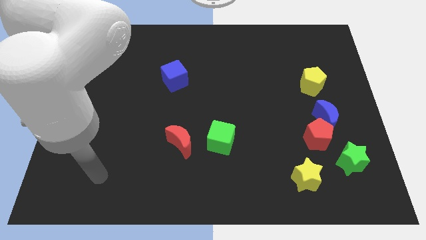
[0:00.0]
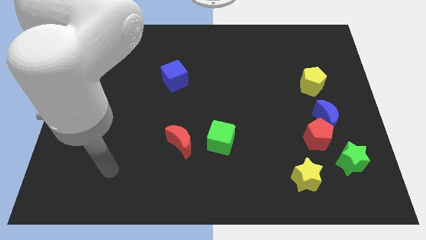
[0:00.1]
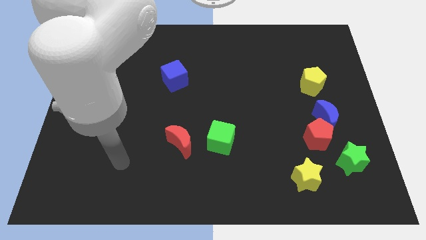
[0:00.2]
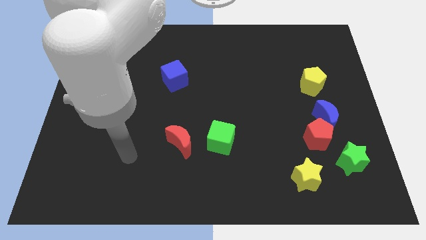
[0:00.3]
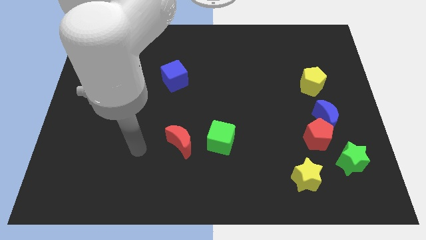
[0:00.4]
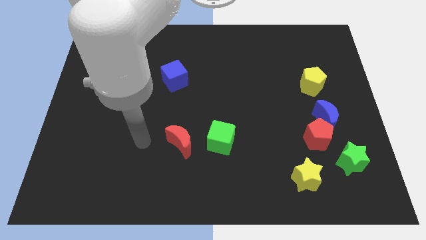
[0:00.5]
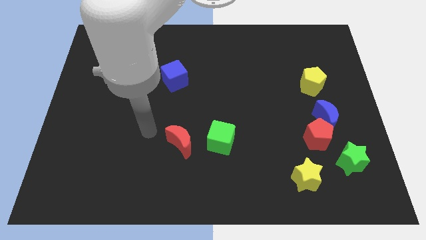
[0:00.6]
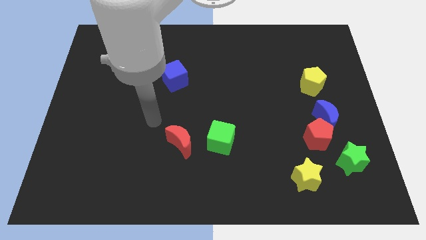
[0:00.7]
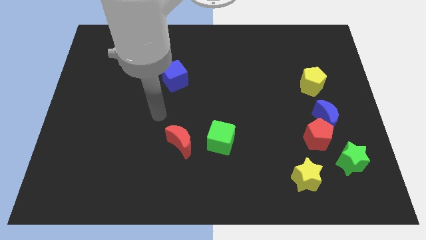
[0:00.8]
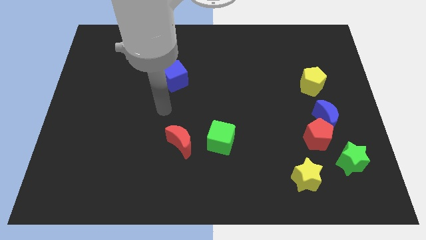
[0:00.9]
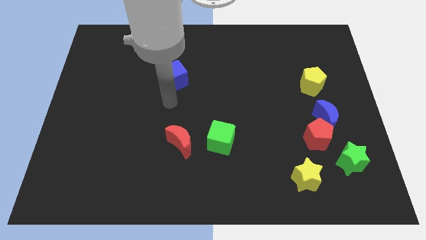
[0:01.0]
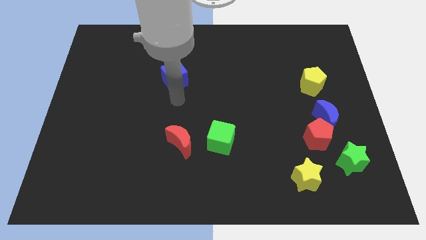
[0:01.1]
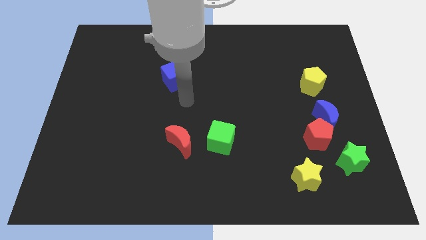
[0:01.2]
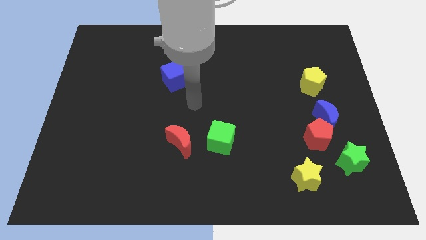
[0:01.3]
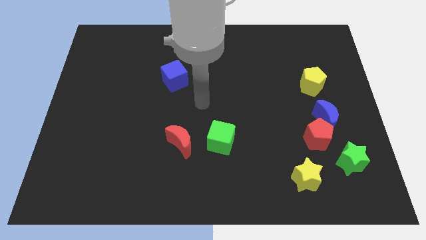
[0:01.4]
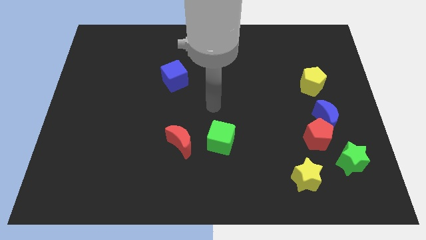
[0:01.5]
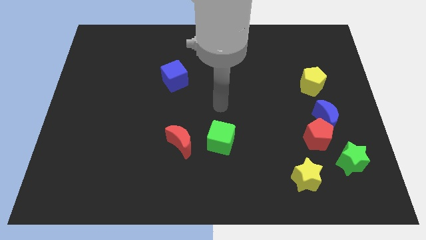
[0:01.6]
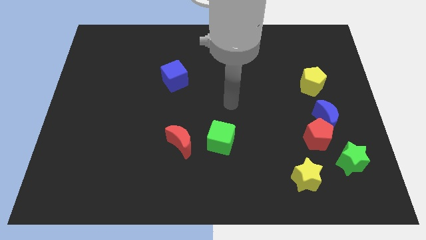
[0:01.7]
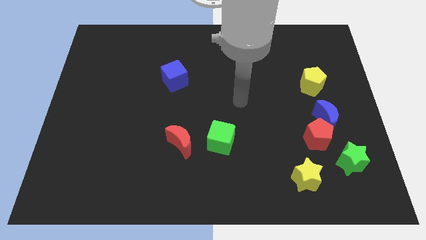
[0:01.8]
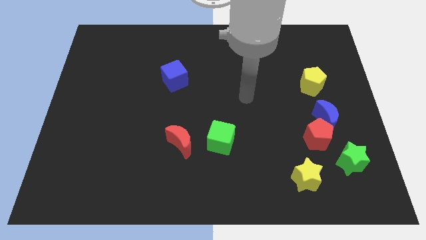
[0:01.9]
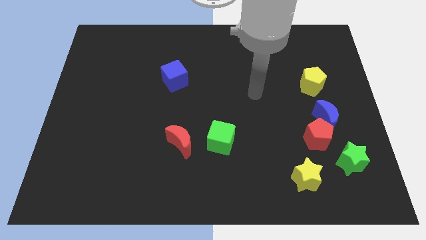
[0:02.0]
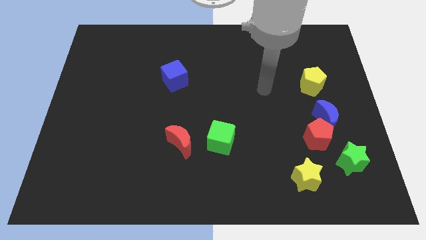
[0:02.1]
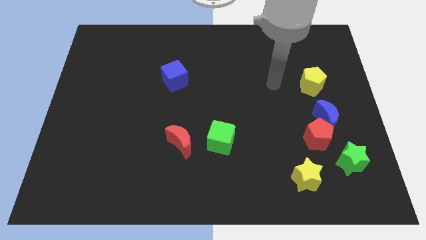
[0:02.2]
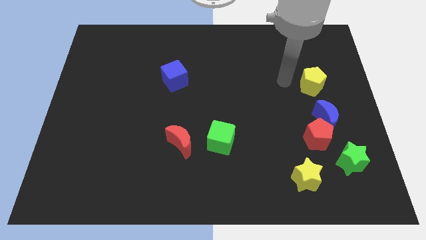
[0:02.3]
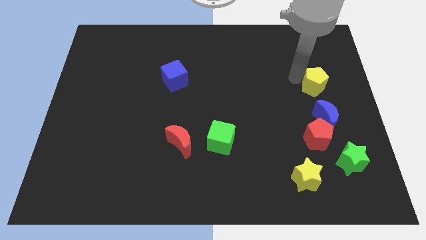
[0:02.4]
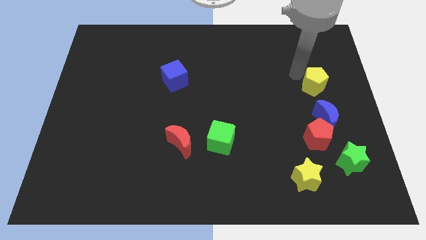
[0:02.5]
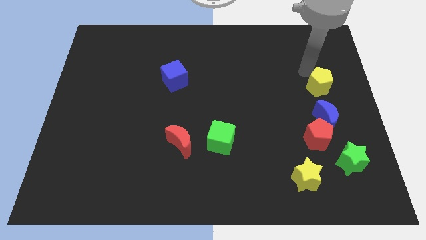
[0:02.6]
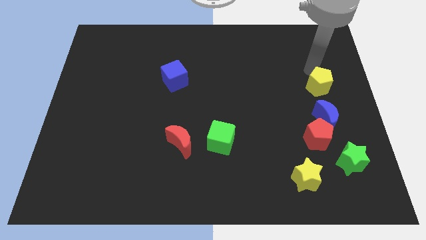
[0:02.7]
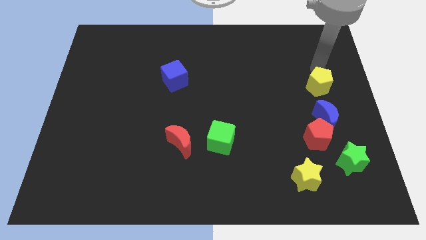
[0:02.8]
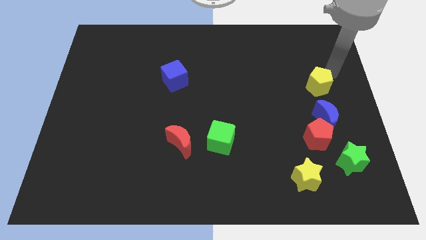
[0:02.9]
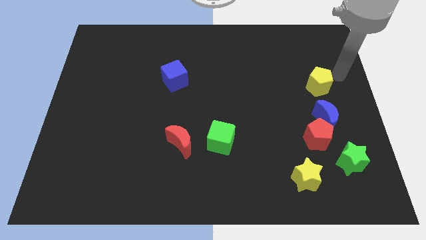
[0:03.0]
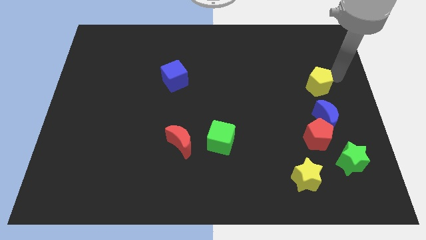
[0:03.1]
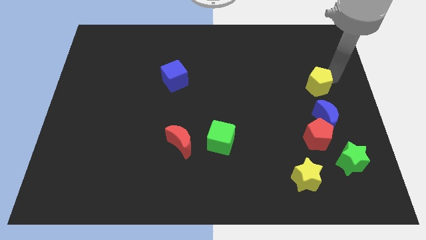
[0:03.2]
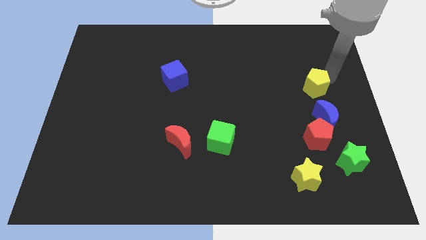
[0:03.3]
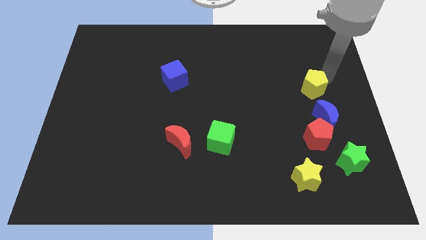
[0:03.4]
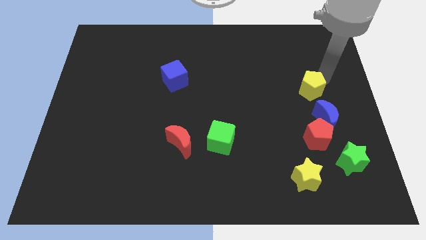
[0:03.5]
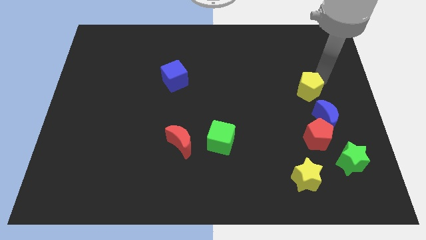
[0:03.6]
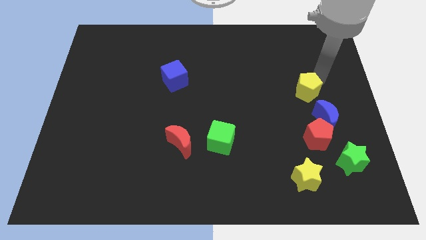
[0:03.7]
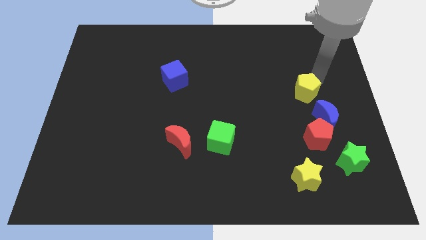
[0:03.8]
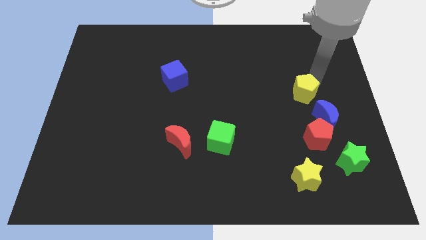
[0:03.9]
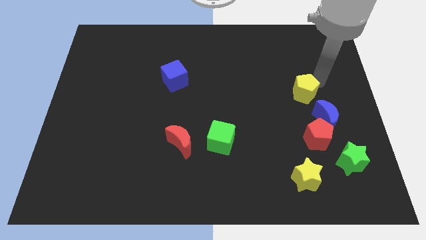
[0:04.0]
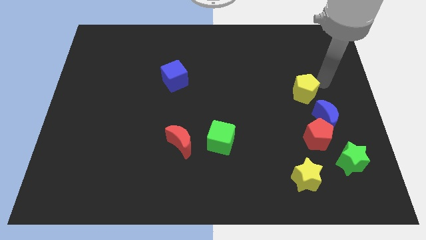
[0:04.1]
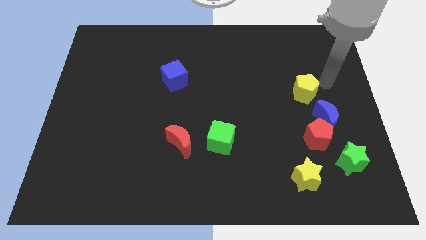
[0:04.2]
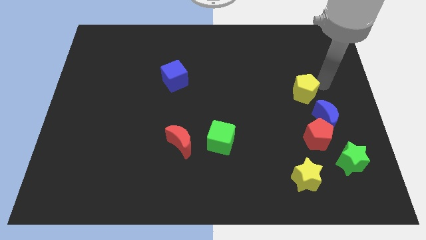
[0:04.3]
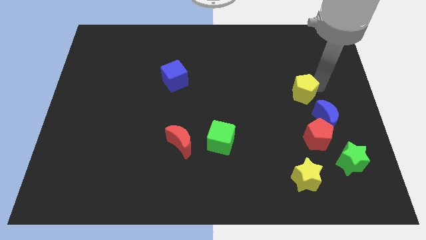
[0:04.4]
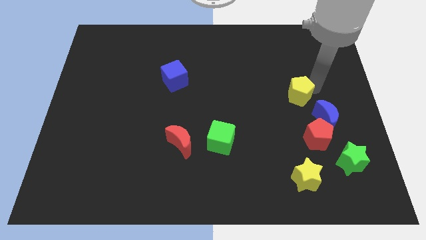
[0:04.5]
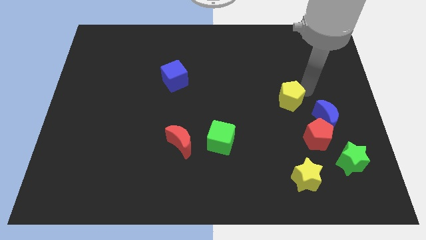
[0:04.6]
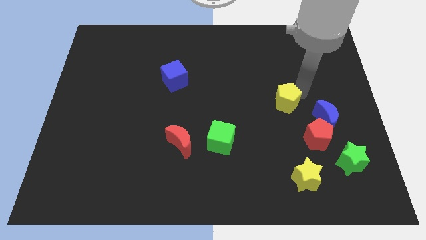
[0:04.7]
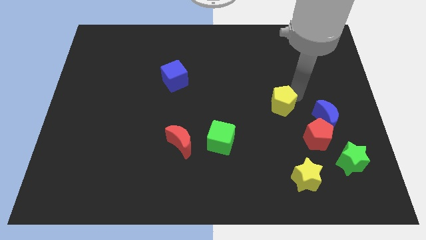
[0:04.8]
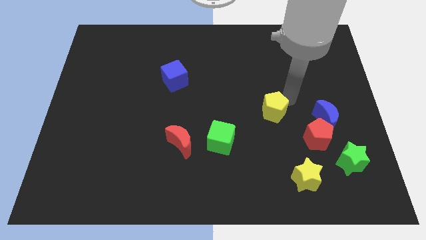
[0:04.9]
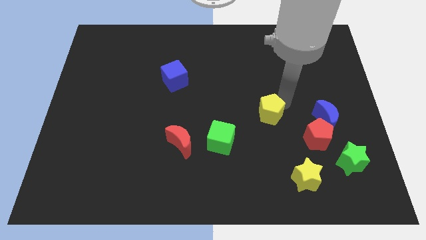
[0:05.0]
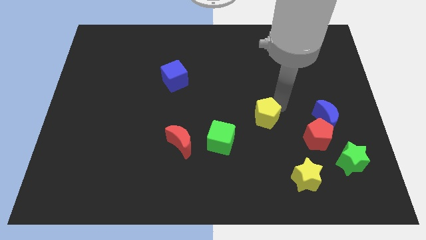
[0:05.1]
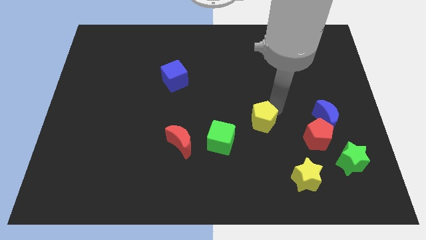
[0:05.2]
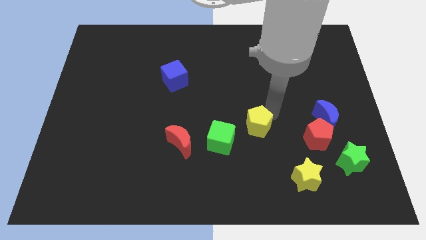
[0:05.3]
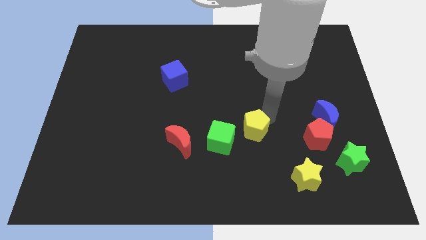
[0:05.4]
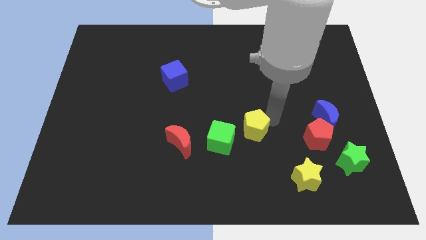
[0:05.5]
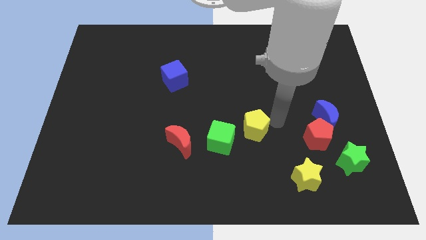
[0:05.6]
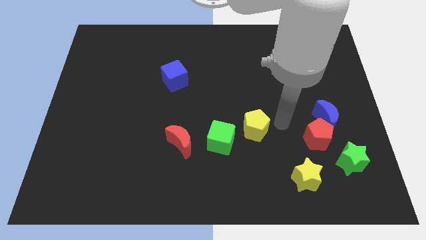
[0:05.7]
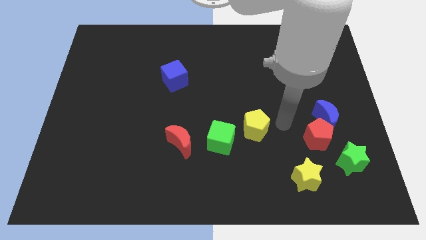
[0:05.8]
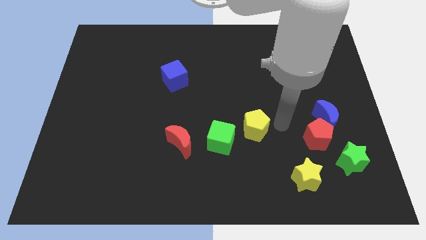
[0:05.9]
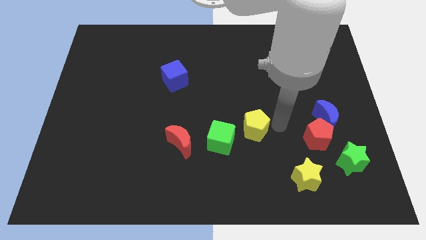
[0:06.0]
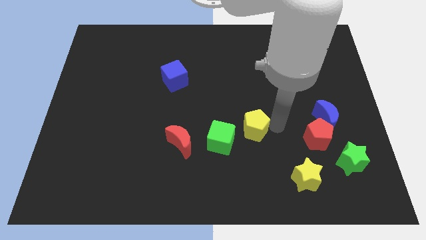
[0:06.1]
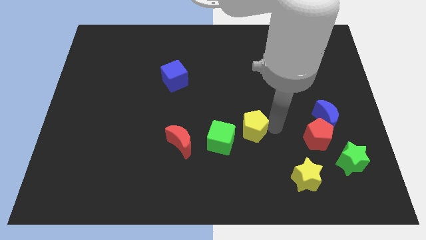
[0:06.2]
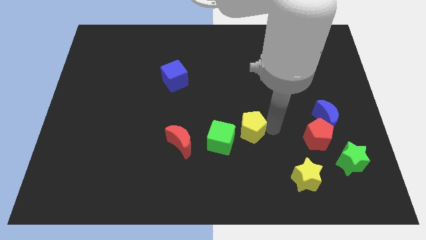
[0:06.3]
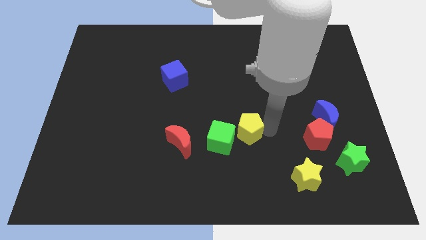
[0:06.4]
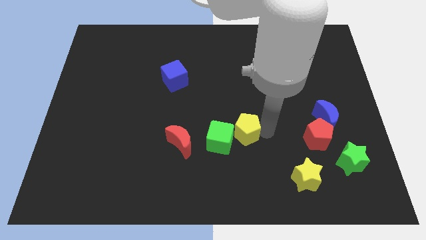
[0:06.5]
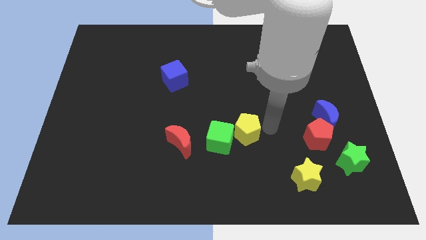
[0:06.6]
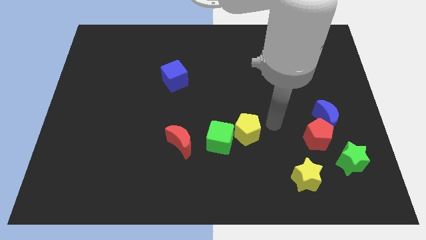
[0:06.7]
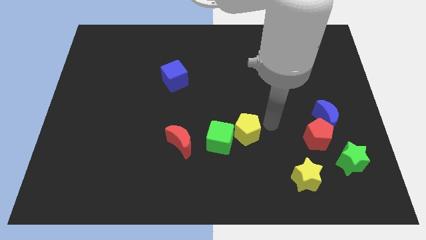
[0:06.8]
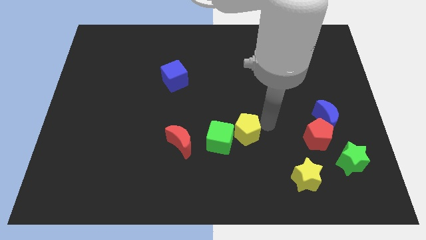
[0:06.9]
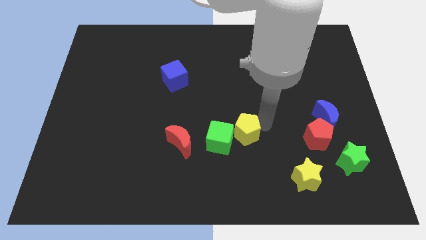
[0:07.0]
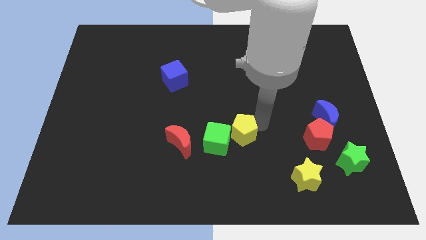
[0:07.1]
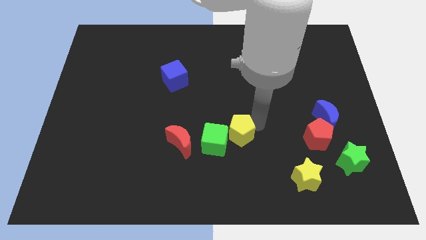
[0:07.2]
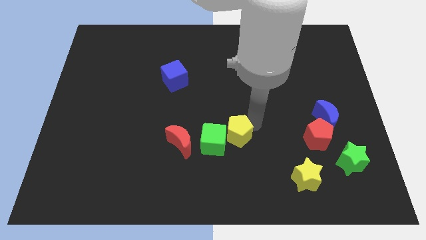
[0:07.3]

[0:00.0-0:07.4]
move the yellow pentagon towards the green cube
